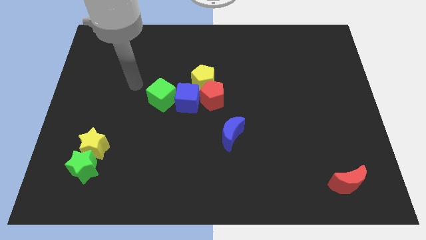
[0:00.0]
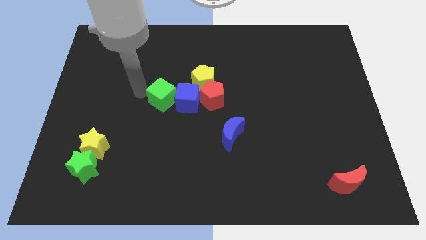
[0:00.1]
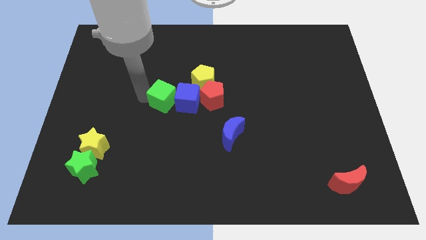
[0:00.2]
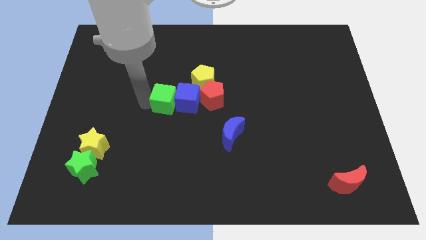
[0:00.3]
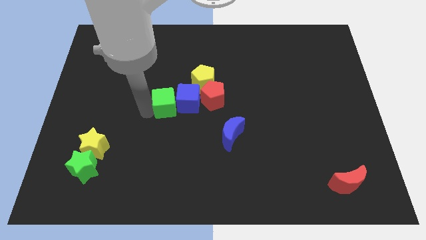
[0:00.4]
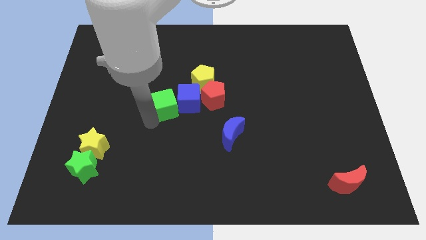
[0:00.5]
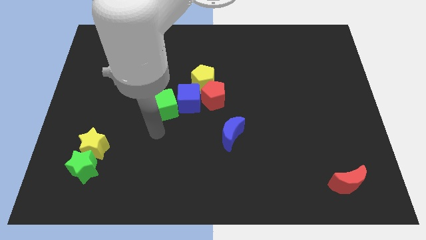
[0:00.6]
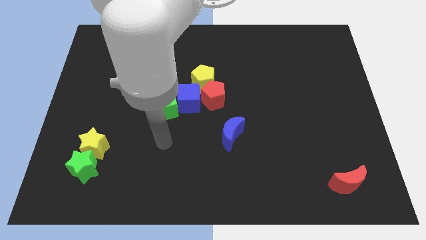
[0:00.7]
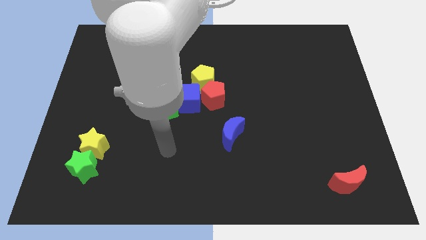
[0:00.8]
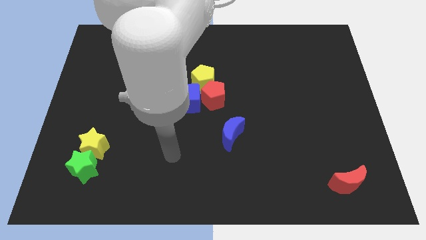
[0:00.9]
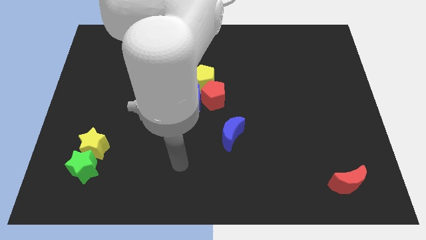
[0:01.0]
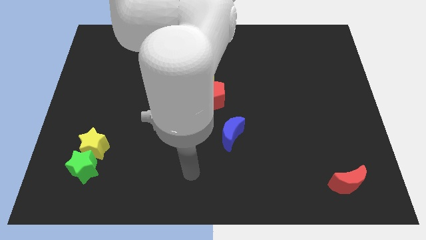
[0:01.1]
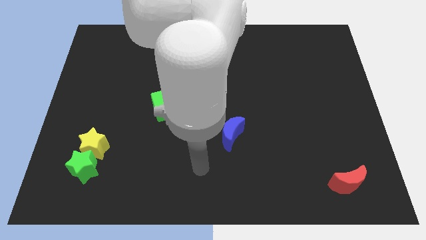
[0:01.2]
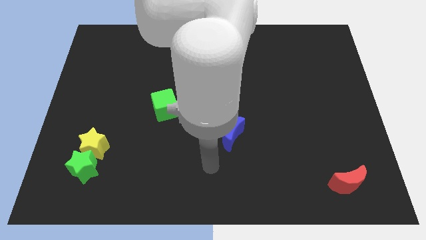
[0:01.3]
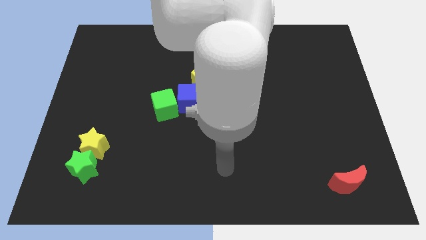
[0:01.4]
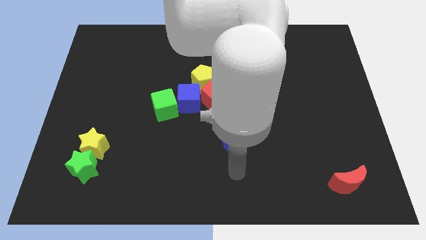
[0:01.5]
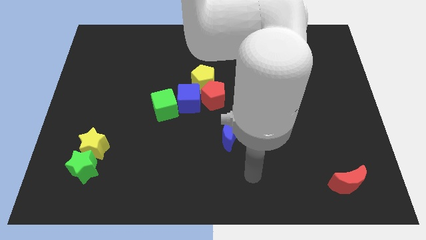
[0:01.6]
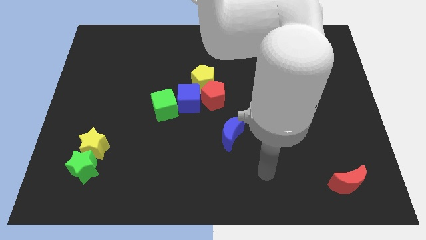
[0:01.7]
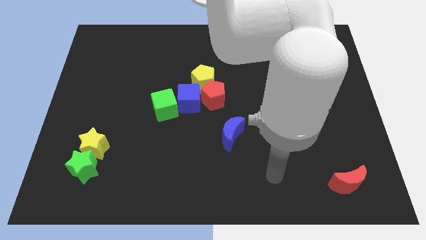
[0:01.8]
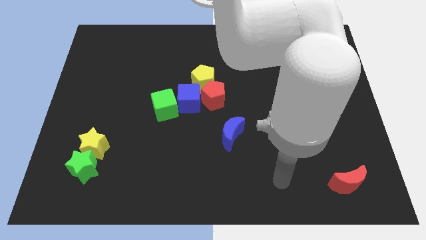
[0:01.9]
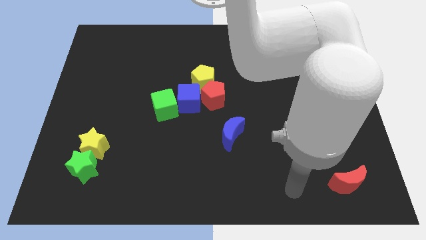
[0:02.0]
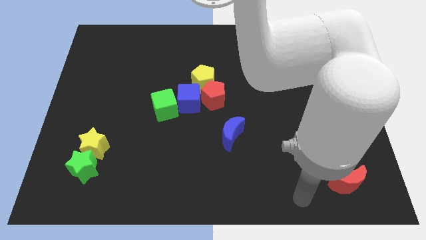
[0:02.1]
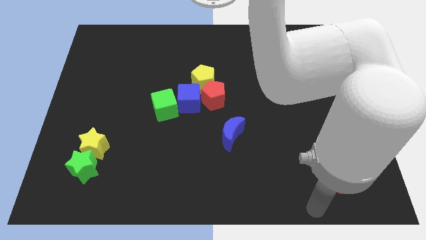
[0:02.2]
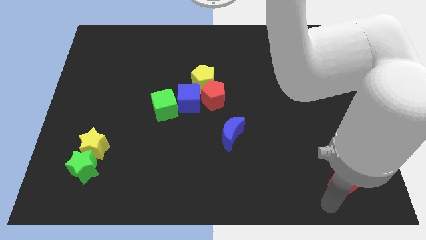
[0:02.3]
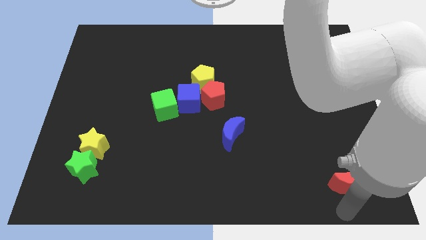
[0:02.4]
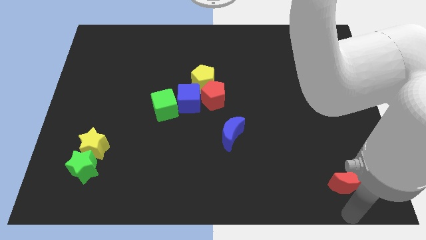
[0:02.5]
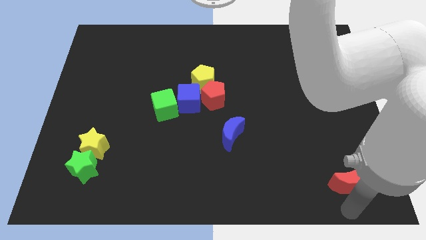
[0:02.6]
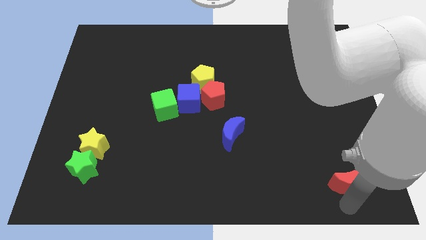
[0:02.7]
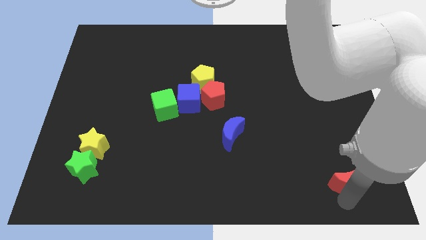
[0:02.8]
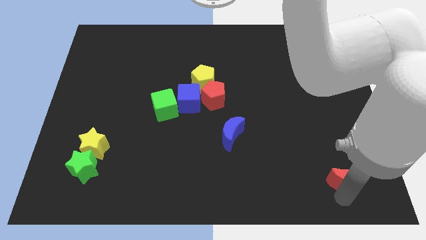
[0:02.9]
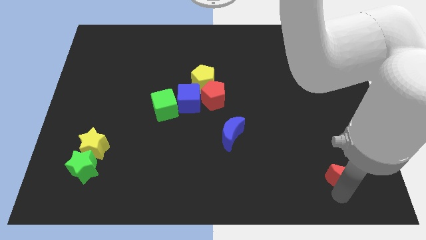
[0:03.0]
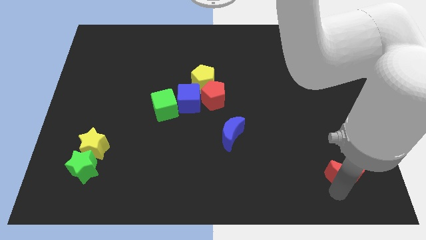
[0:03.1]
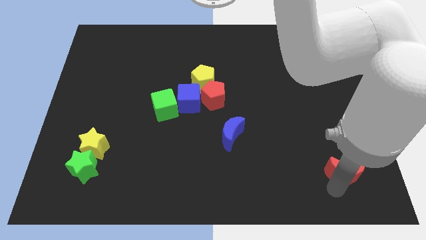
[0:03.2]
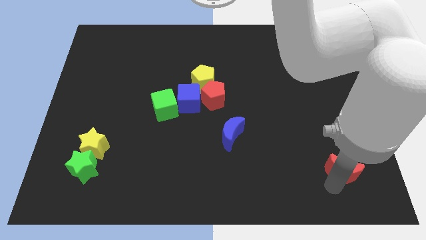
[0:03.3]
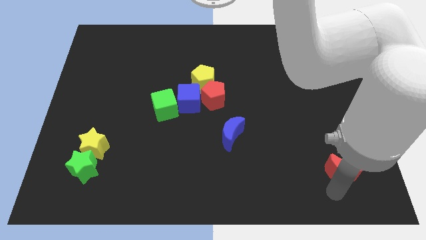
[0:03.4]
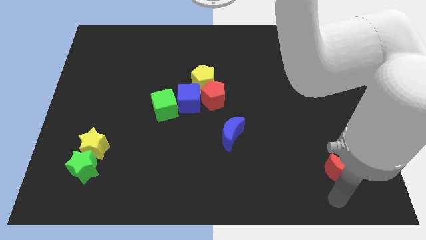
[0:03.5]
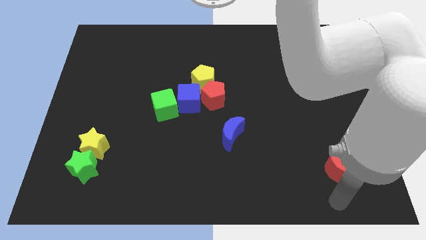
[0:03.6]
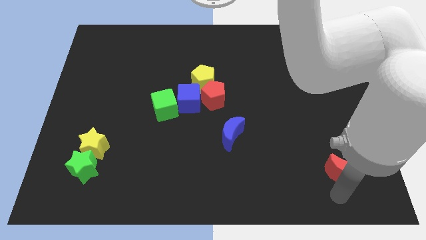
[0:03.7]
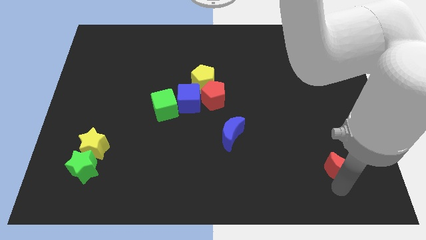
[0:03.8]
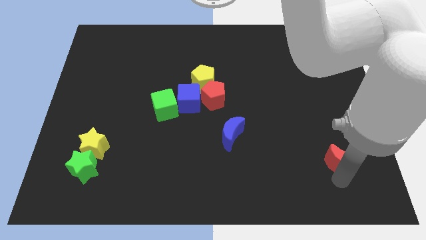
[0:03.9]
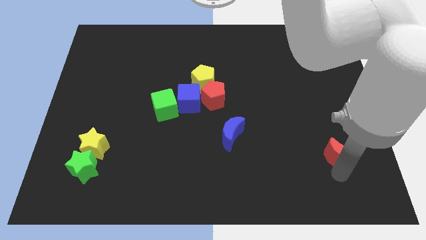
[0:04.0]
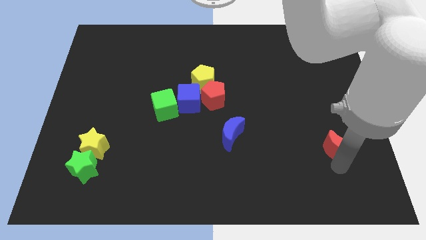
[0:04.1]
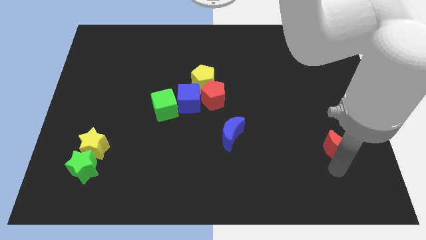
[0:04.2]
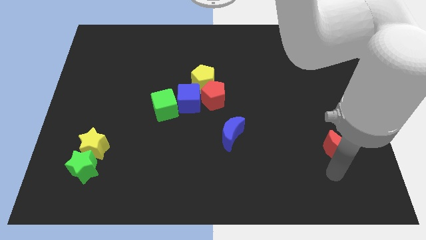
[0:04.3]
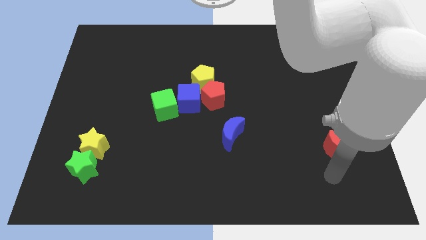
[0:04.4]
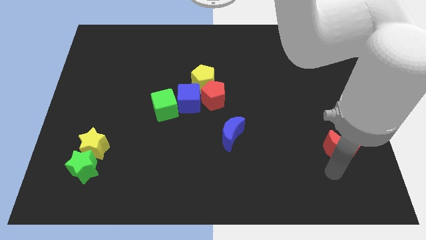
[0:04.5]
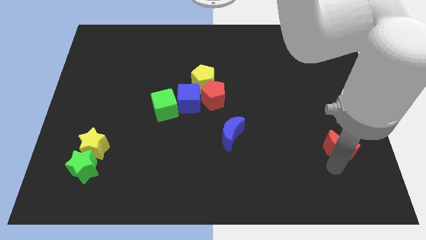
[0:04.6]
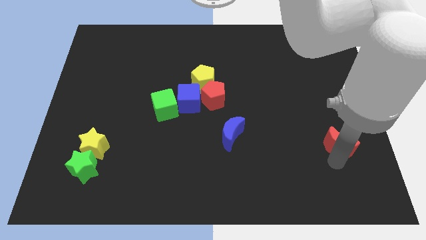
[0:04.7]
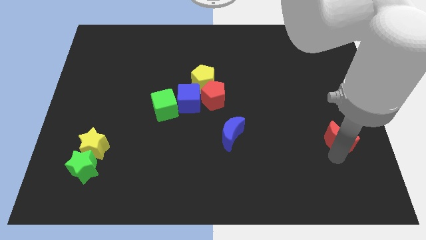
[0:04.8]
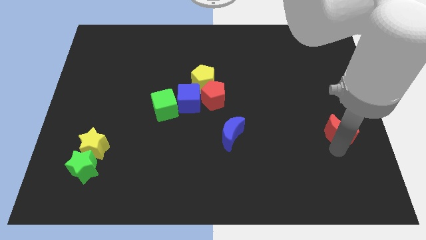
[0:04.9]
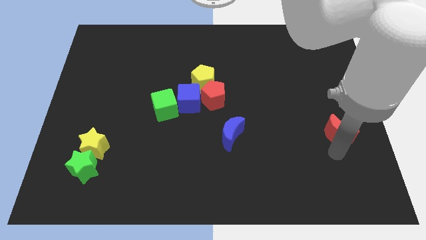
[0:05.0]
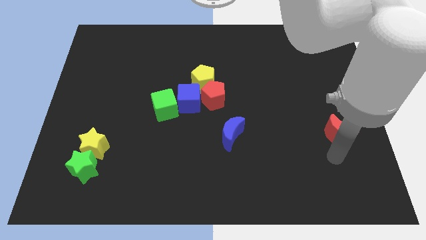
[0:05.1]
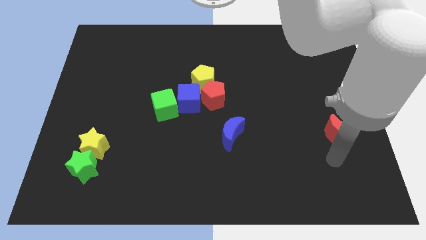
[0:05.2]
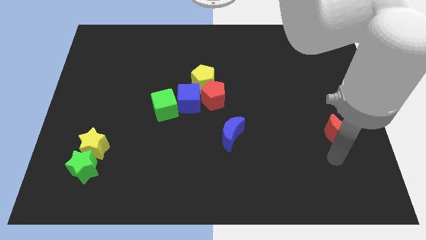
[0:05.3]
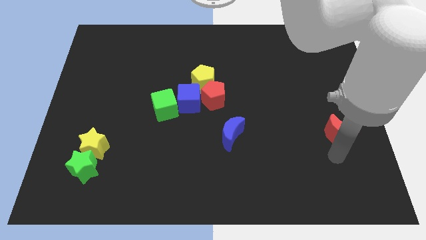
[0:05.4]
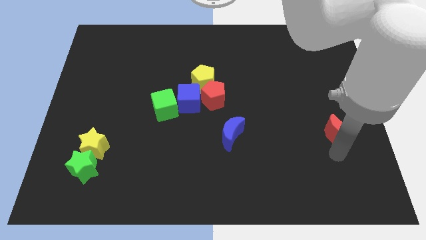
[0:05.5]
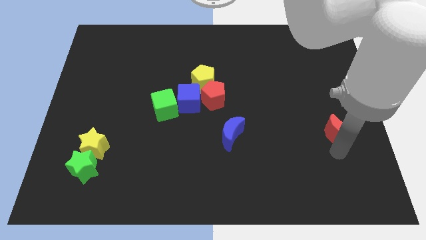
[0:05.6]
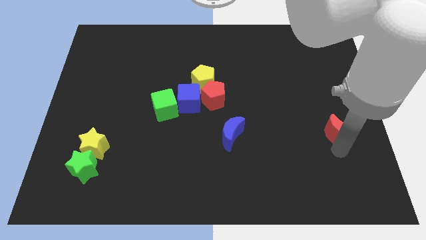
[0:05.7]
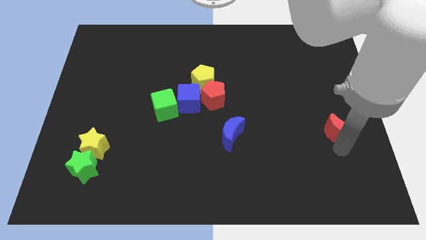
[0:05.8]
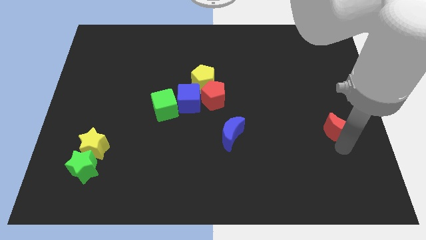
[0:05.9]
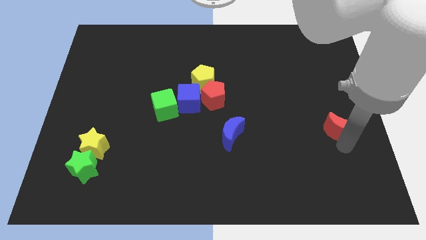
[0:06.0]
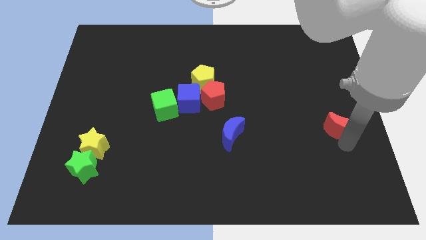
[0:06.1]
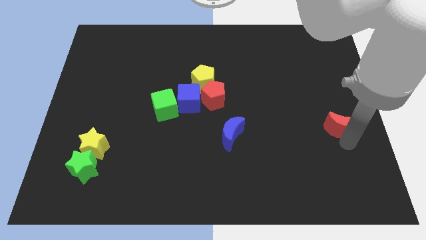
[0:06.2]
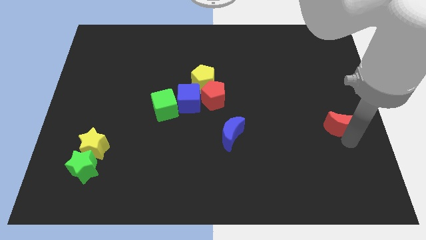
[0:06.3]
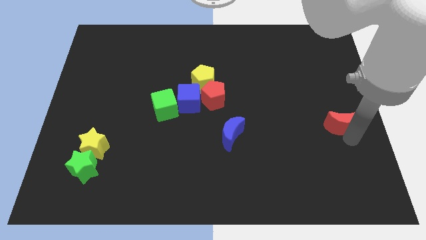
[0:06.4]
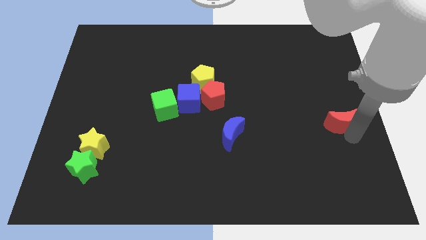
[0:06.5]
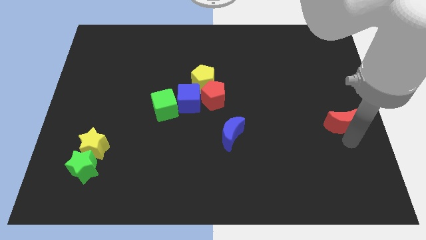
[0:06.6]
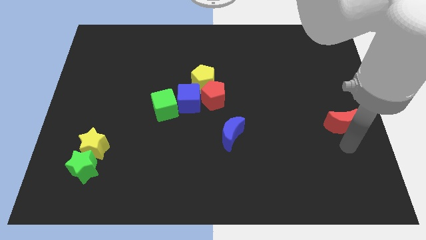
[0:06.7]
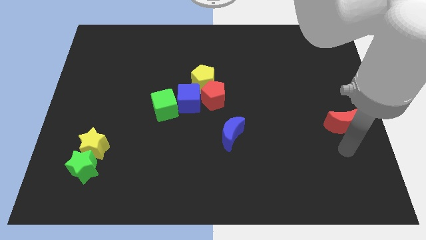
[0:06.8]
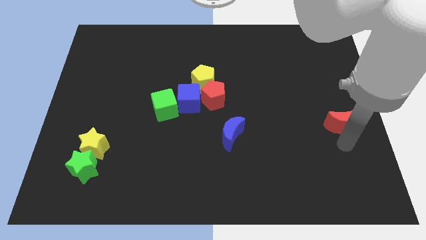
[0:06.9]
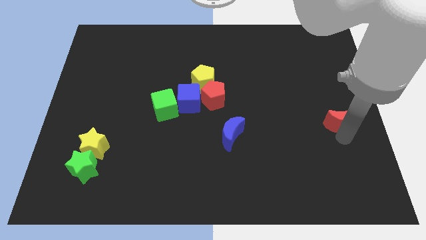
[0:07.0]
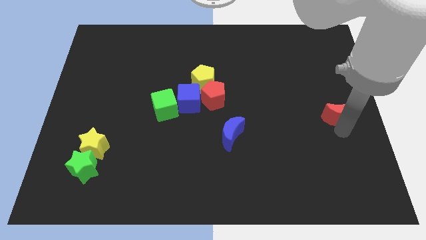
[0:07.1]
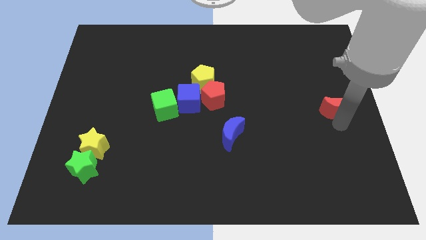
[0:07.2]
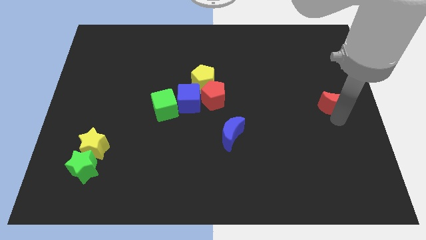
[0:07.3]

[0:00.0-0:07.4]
move the red moon upwards

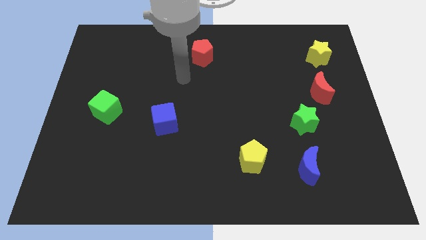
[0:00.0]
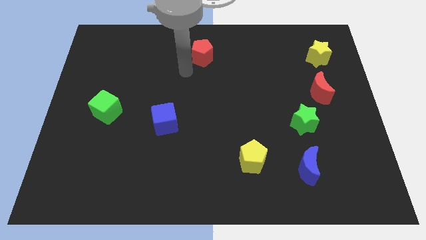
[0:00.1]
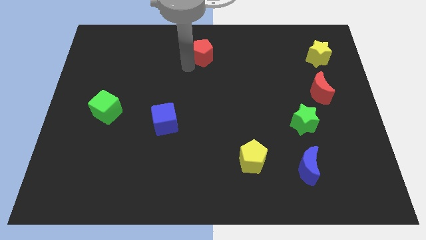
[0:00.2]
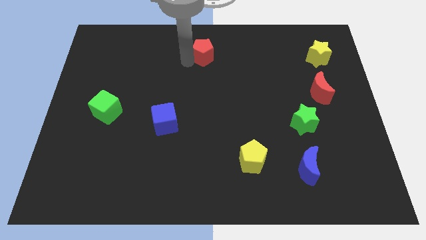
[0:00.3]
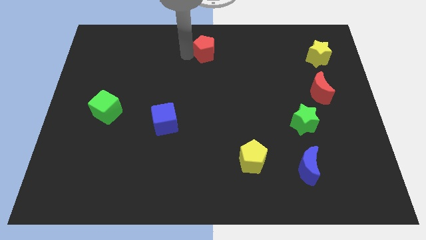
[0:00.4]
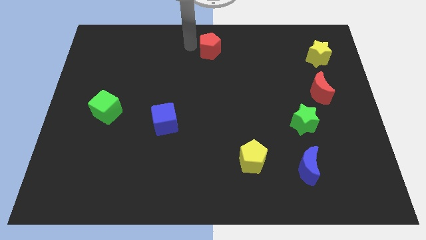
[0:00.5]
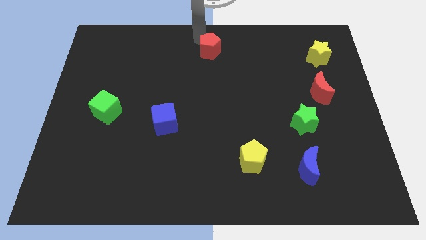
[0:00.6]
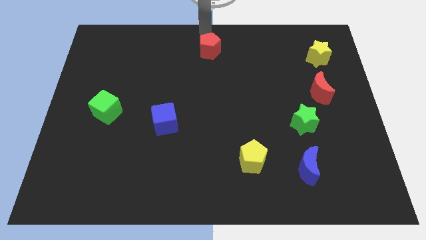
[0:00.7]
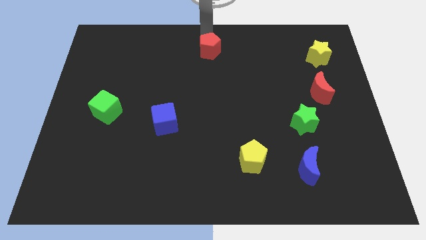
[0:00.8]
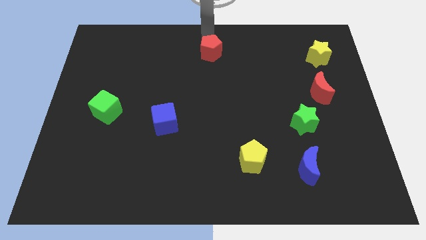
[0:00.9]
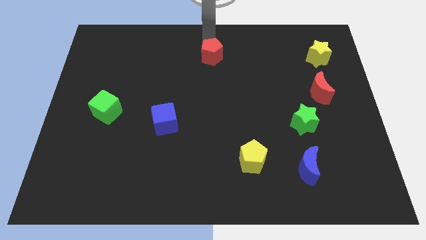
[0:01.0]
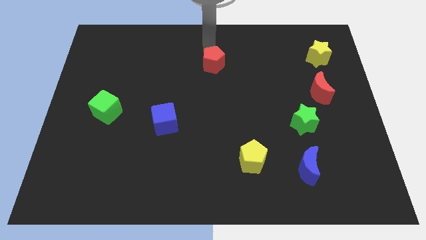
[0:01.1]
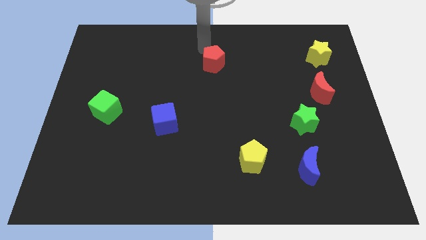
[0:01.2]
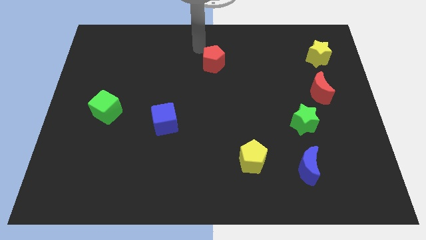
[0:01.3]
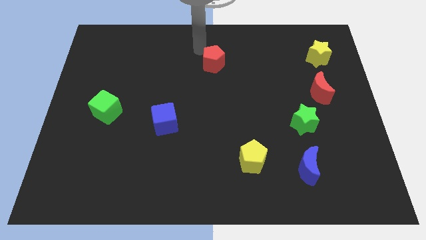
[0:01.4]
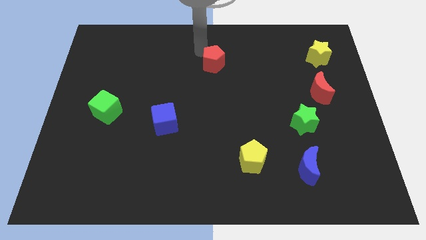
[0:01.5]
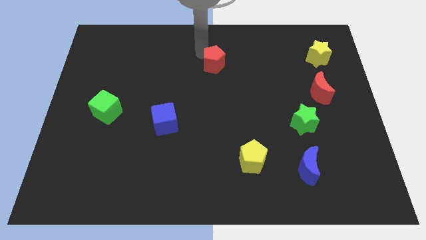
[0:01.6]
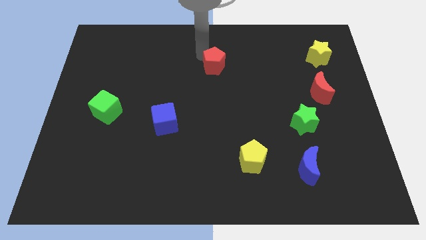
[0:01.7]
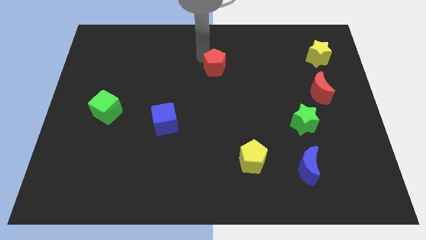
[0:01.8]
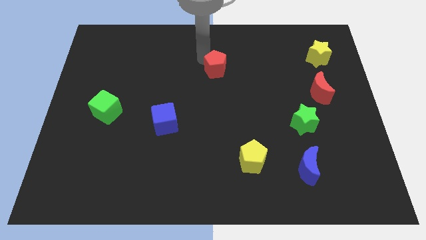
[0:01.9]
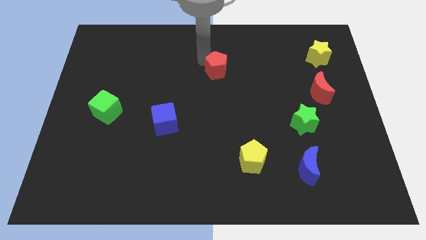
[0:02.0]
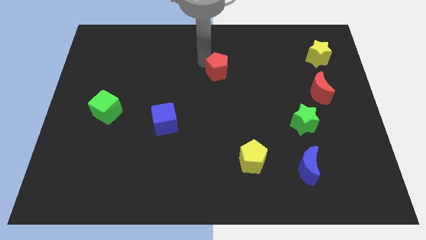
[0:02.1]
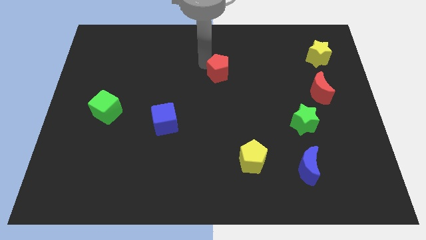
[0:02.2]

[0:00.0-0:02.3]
slide the red pentagon downwards and to the right diagonally a little bit
